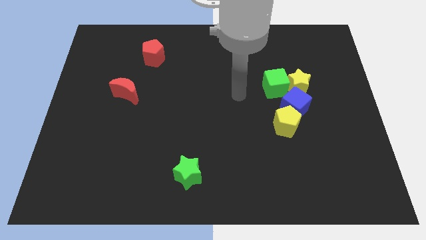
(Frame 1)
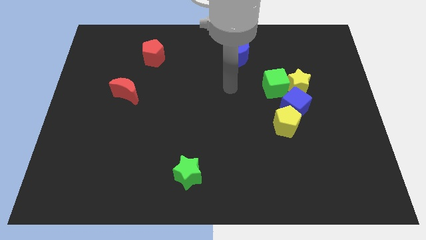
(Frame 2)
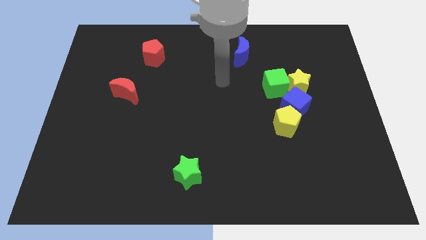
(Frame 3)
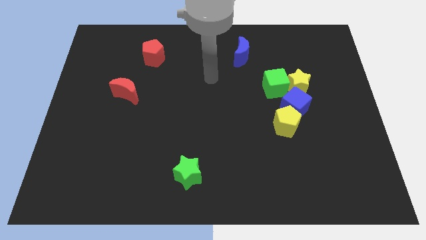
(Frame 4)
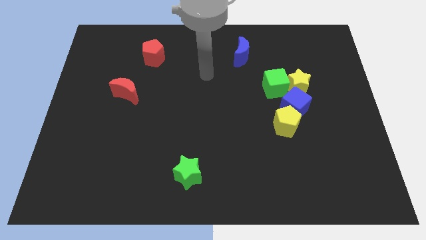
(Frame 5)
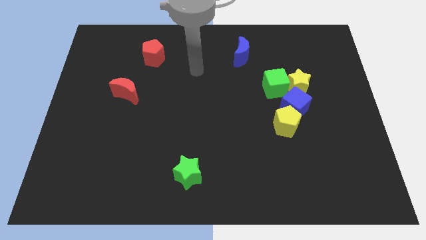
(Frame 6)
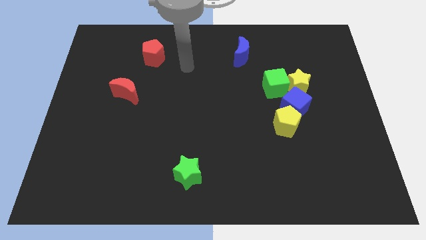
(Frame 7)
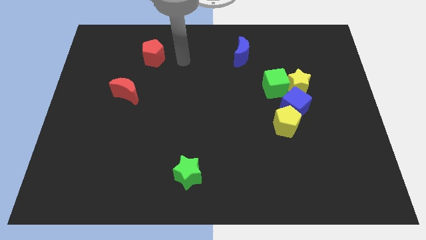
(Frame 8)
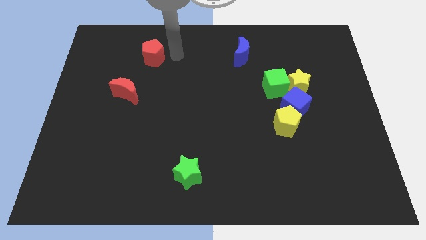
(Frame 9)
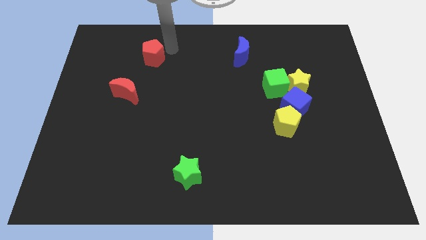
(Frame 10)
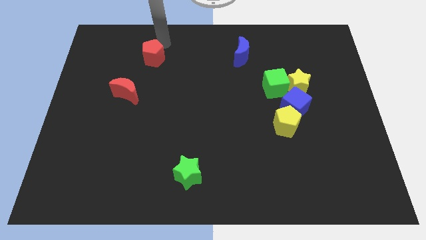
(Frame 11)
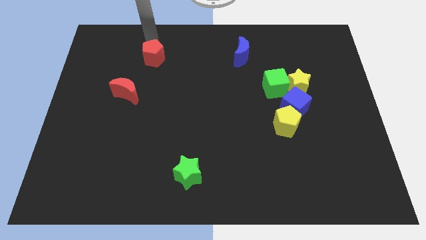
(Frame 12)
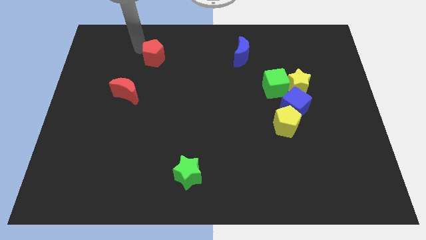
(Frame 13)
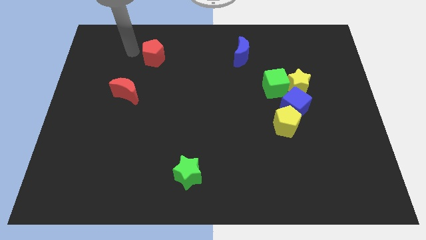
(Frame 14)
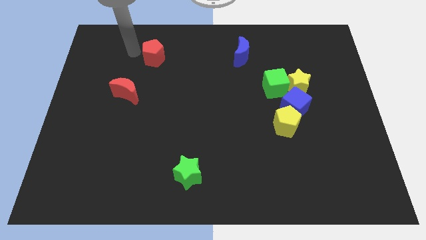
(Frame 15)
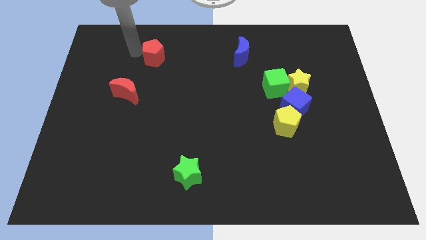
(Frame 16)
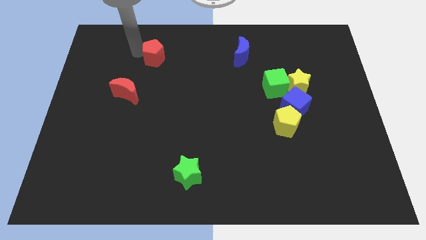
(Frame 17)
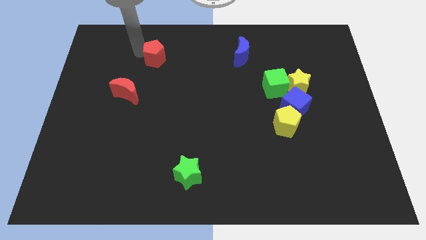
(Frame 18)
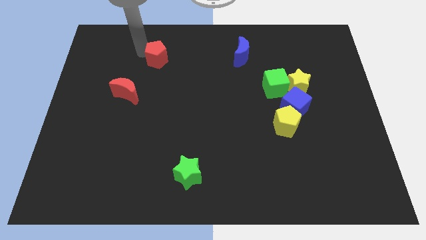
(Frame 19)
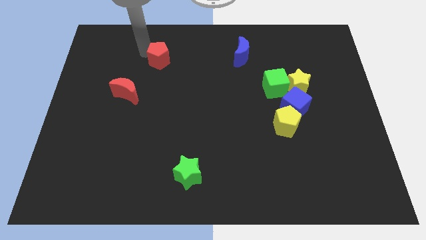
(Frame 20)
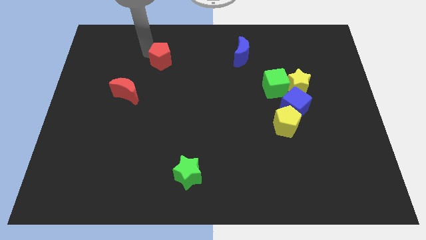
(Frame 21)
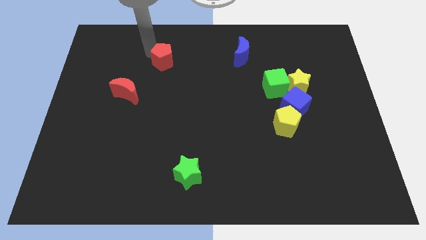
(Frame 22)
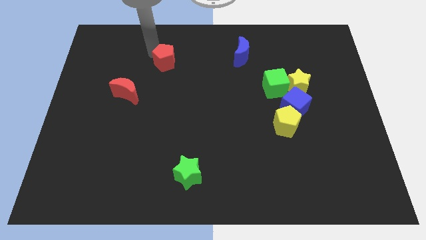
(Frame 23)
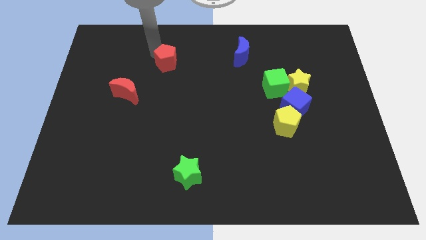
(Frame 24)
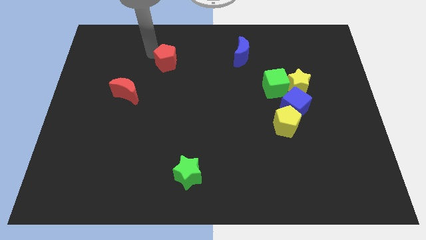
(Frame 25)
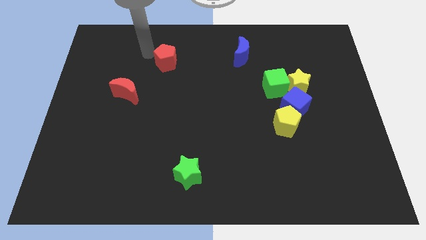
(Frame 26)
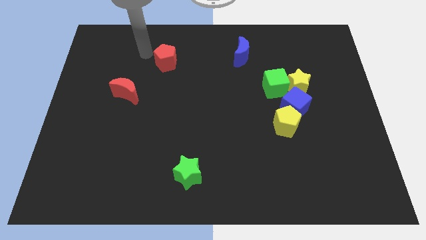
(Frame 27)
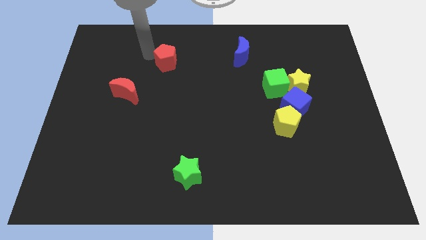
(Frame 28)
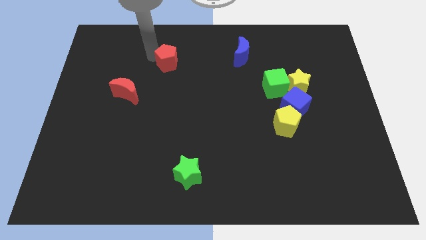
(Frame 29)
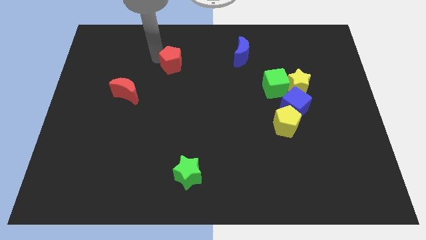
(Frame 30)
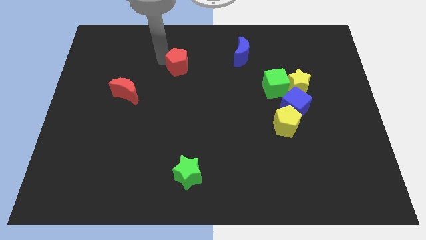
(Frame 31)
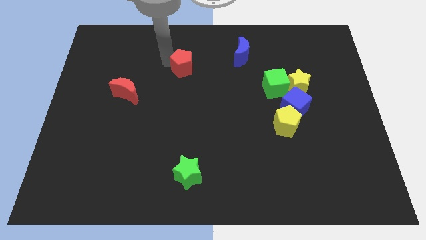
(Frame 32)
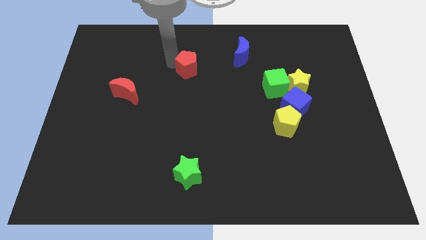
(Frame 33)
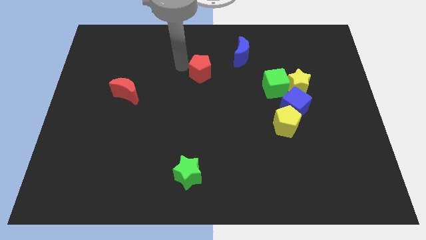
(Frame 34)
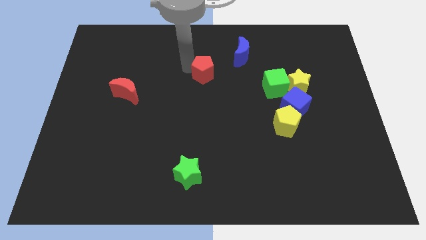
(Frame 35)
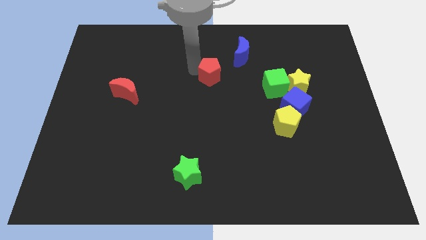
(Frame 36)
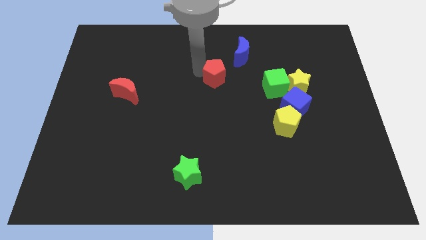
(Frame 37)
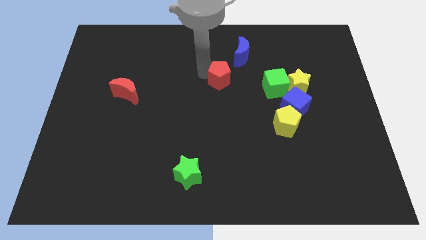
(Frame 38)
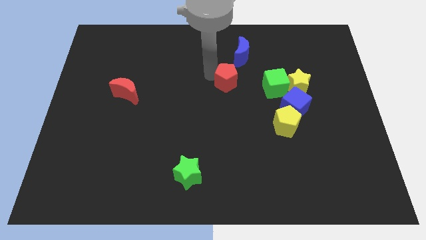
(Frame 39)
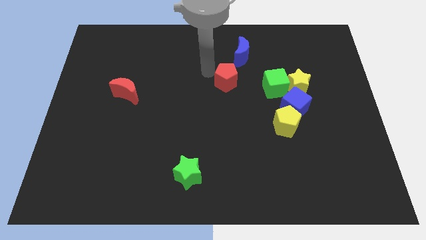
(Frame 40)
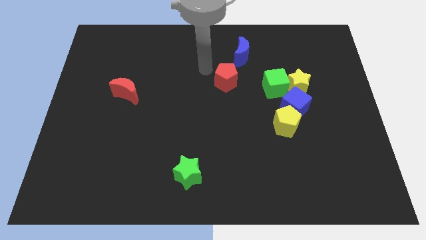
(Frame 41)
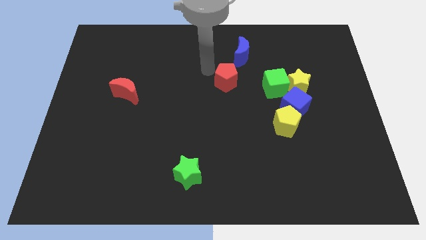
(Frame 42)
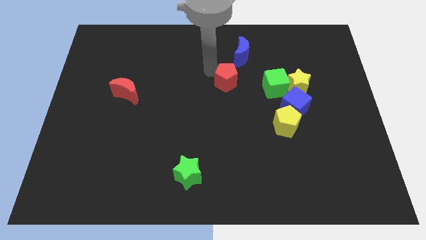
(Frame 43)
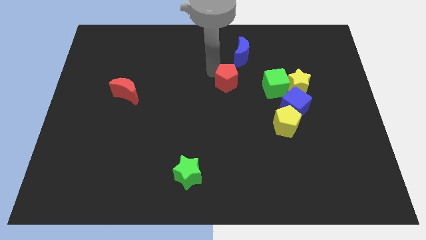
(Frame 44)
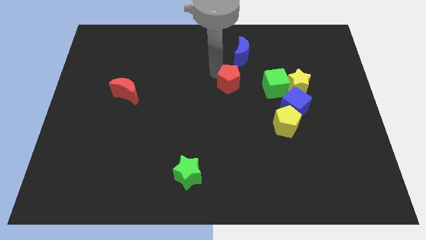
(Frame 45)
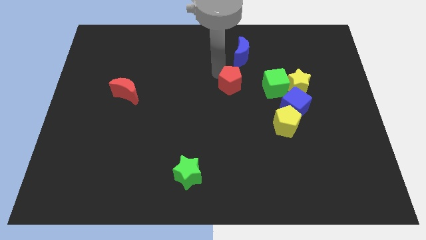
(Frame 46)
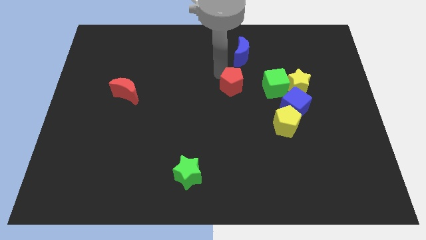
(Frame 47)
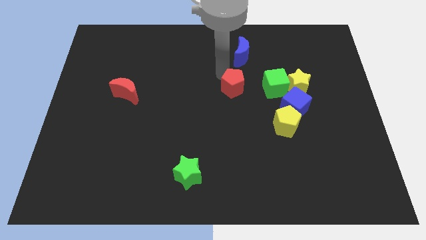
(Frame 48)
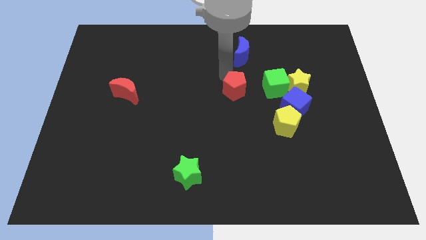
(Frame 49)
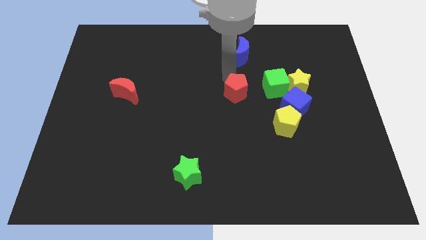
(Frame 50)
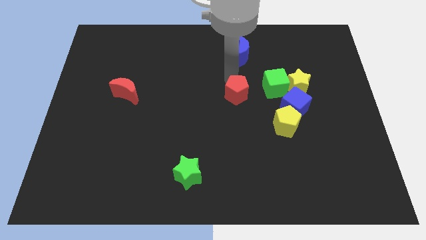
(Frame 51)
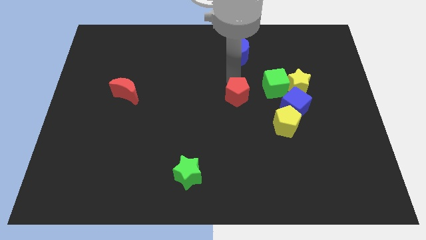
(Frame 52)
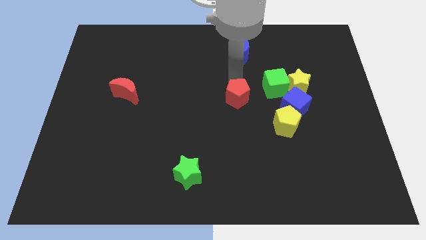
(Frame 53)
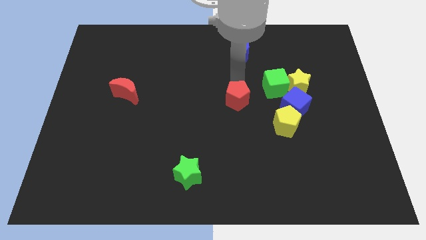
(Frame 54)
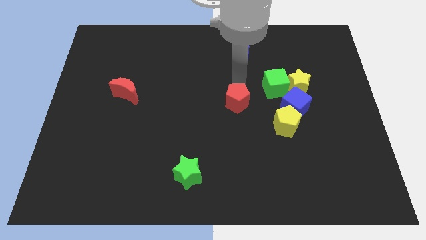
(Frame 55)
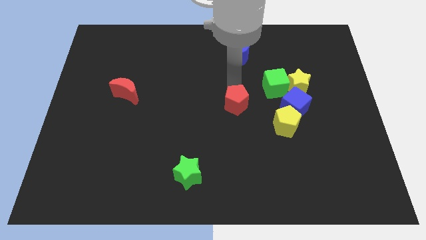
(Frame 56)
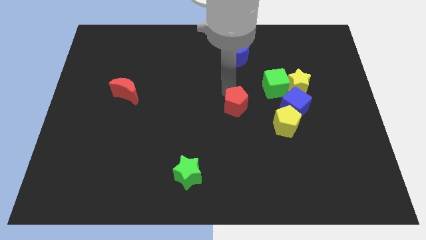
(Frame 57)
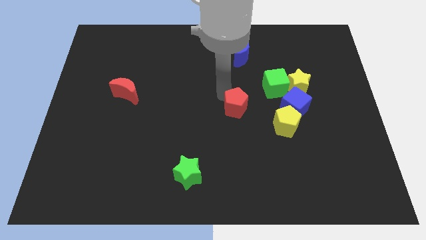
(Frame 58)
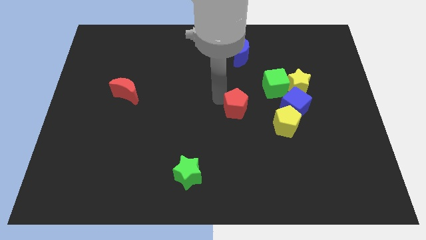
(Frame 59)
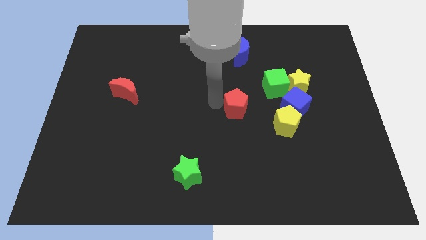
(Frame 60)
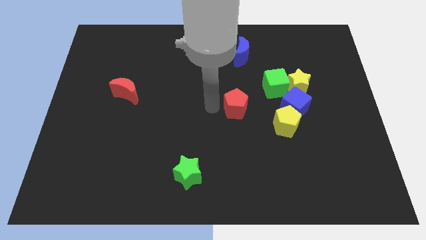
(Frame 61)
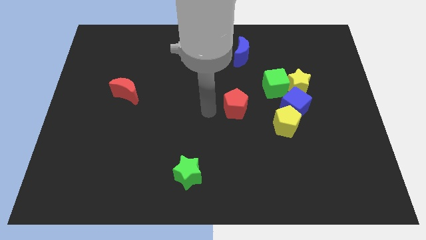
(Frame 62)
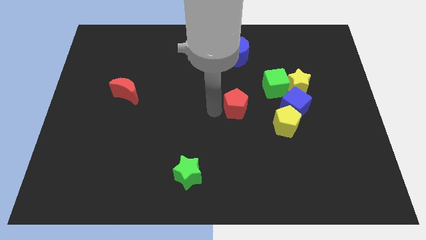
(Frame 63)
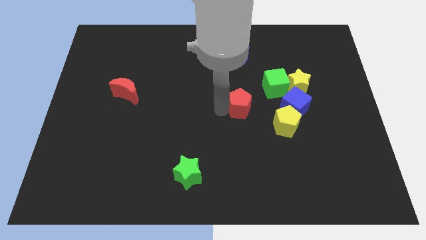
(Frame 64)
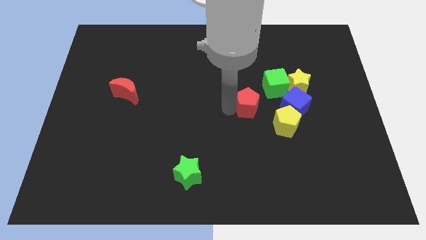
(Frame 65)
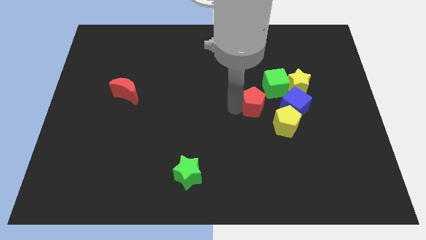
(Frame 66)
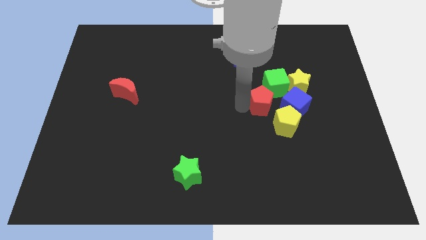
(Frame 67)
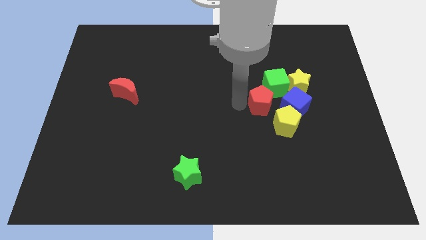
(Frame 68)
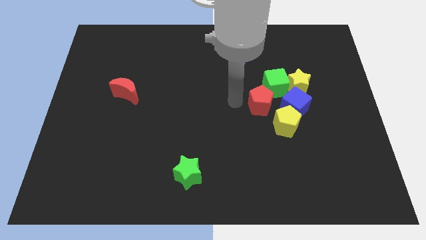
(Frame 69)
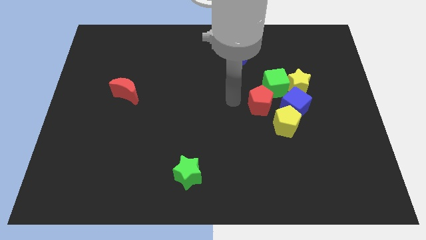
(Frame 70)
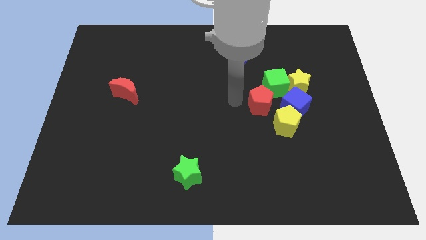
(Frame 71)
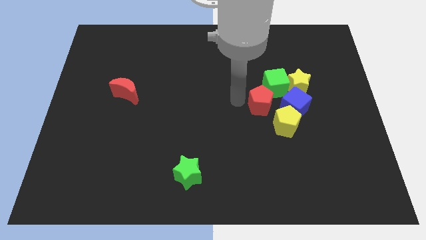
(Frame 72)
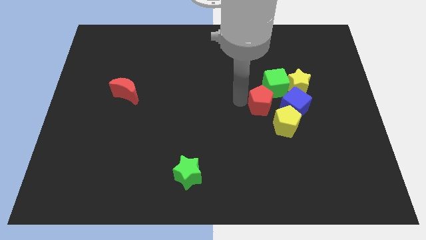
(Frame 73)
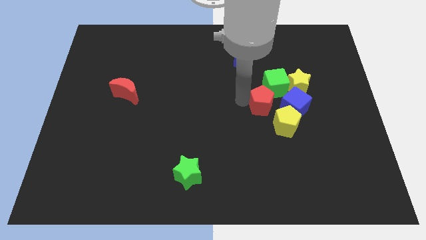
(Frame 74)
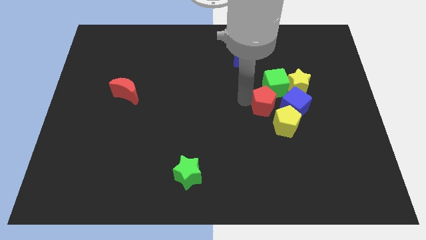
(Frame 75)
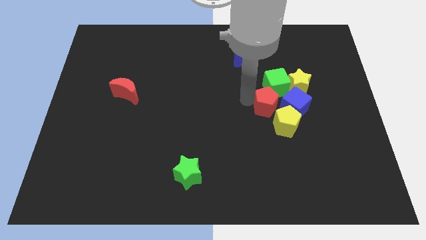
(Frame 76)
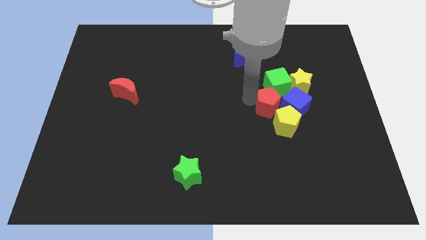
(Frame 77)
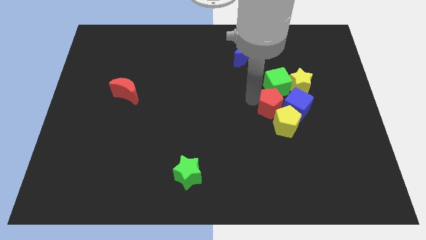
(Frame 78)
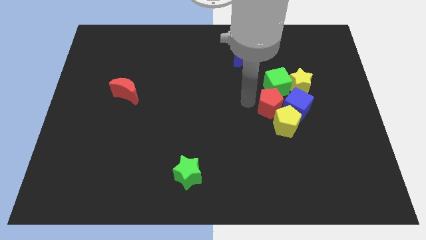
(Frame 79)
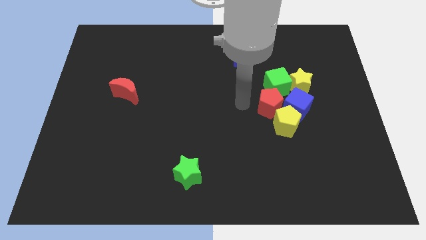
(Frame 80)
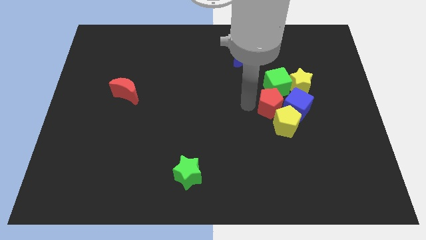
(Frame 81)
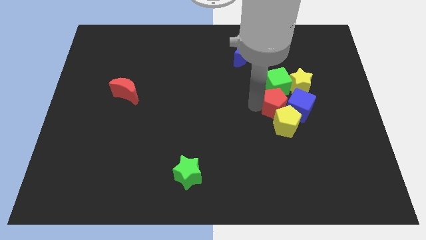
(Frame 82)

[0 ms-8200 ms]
move the red pentagon towards the blue cube
